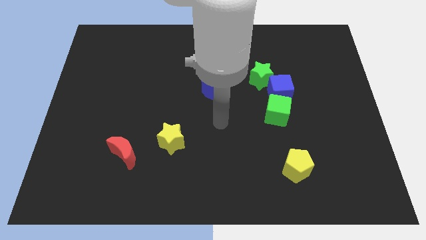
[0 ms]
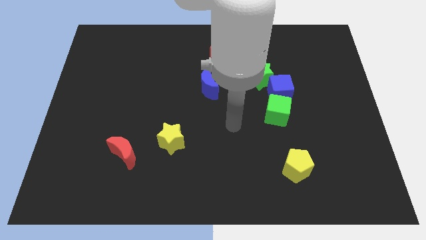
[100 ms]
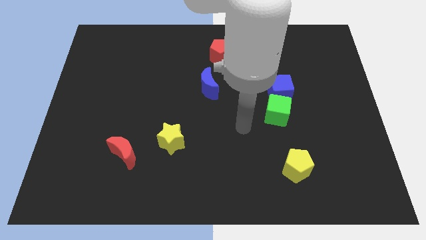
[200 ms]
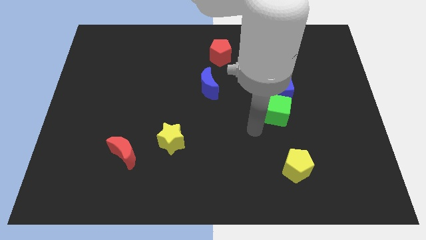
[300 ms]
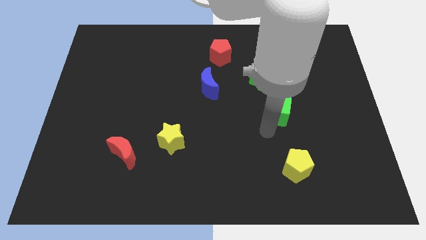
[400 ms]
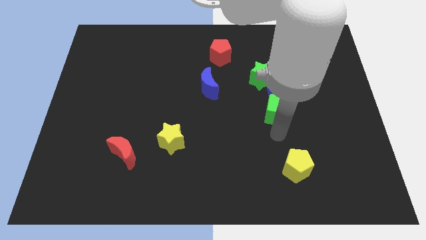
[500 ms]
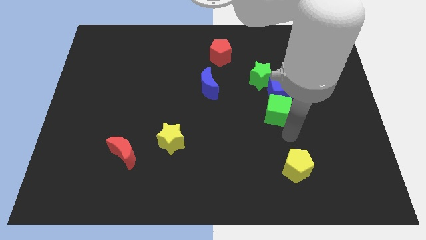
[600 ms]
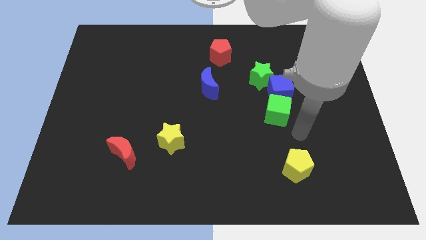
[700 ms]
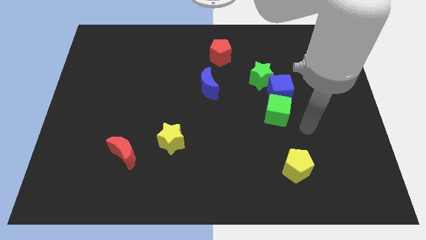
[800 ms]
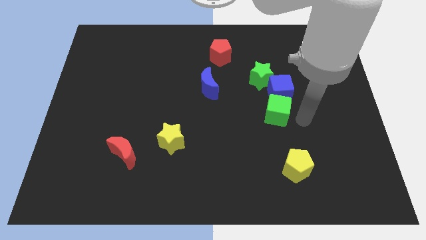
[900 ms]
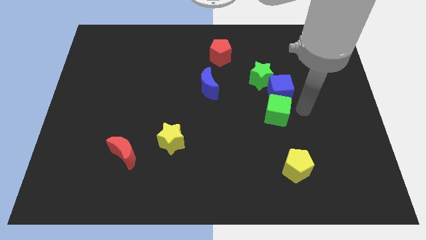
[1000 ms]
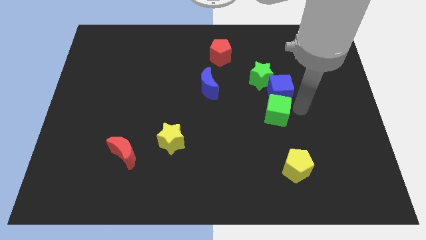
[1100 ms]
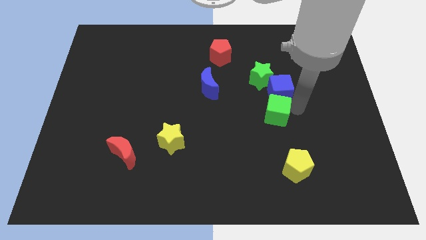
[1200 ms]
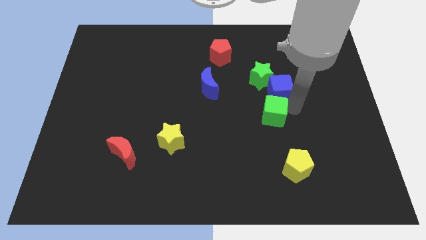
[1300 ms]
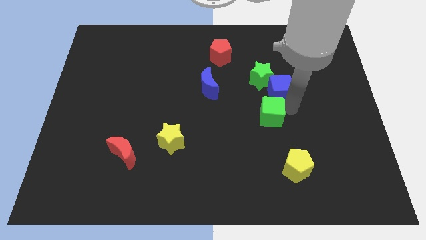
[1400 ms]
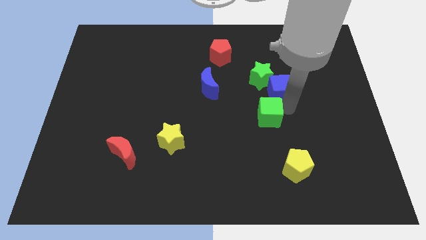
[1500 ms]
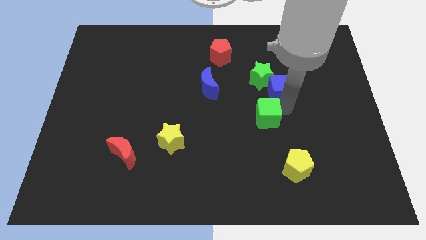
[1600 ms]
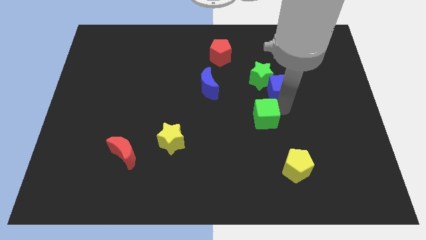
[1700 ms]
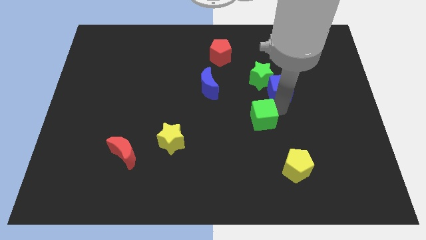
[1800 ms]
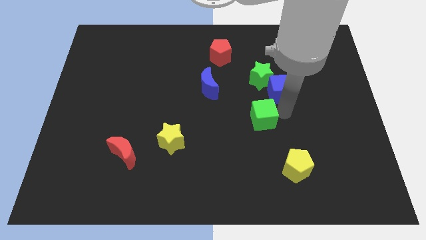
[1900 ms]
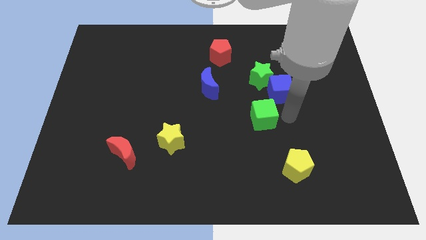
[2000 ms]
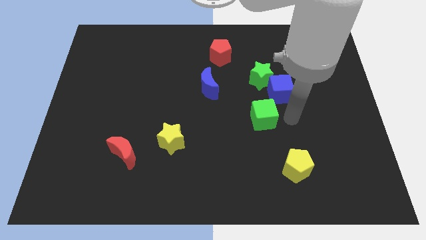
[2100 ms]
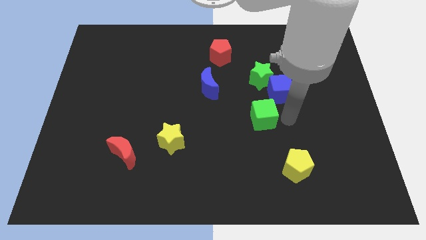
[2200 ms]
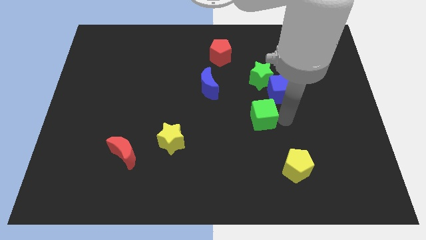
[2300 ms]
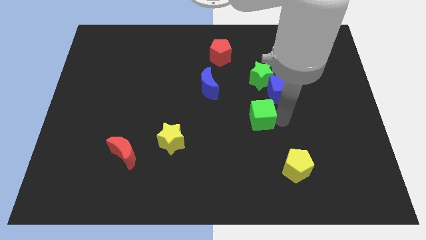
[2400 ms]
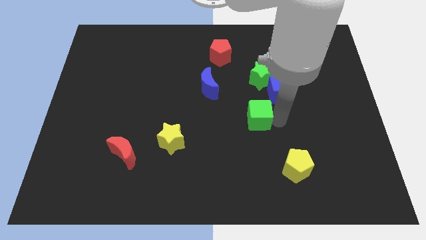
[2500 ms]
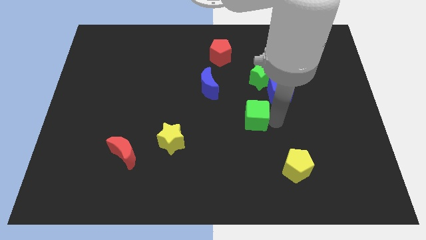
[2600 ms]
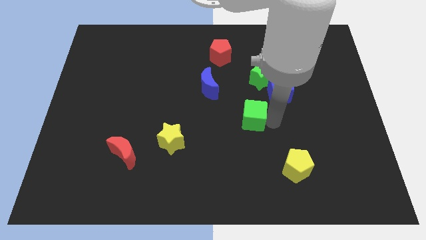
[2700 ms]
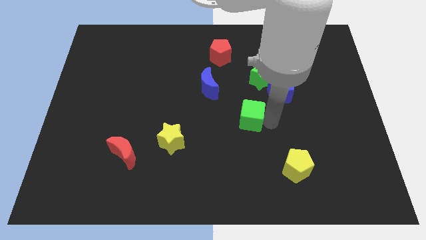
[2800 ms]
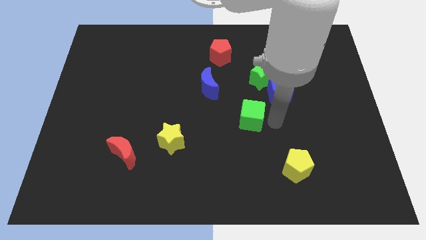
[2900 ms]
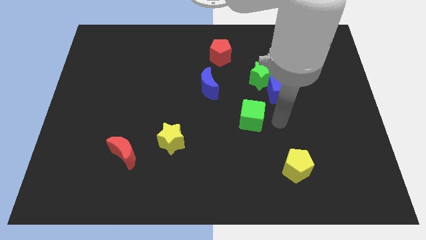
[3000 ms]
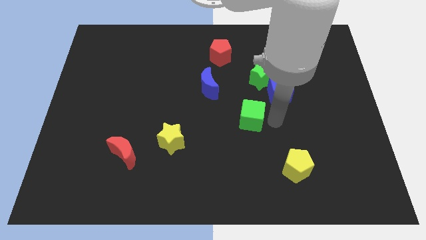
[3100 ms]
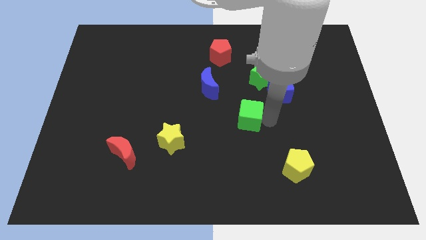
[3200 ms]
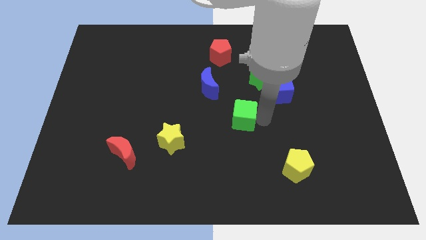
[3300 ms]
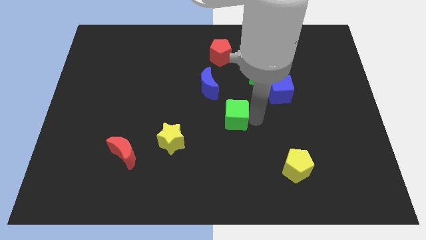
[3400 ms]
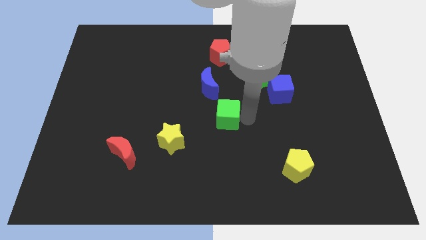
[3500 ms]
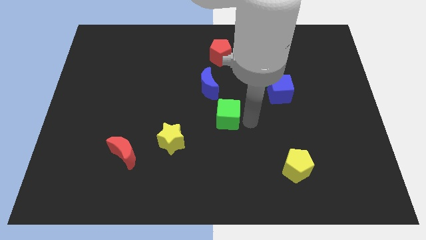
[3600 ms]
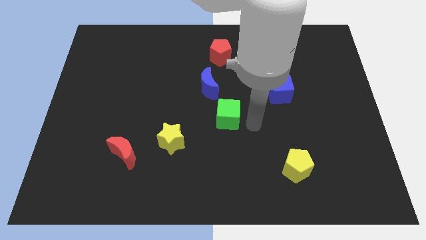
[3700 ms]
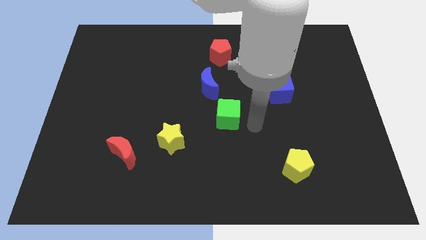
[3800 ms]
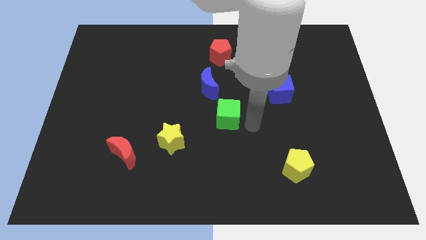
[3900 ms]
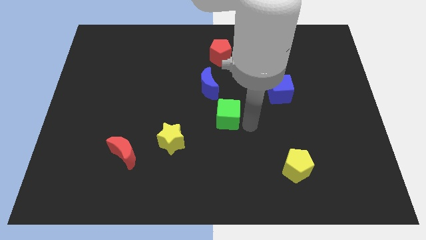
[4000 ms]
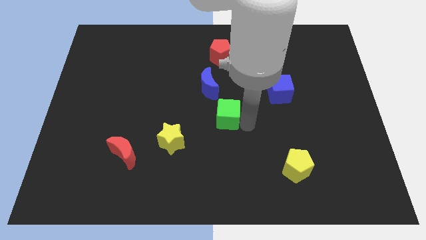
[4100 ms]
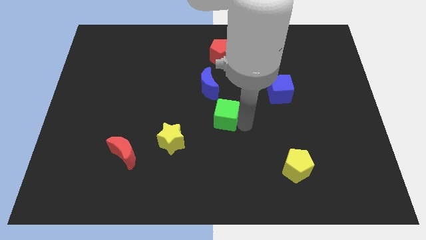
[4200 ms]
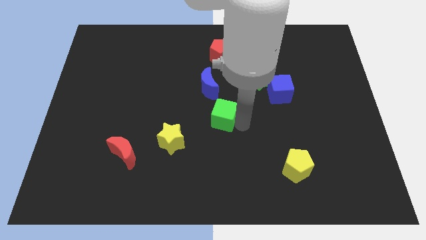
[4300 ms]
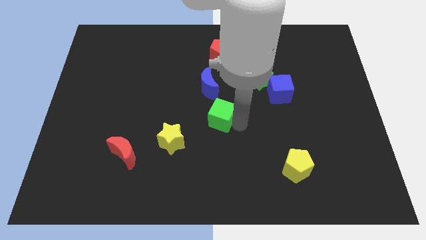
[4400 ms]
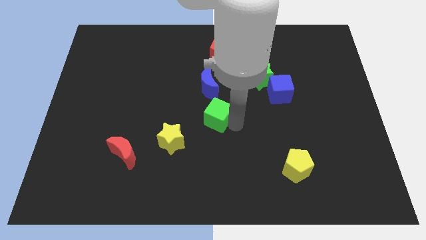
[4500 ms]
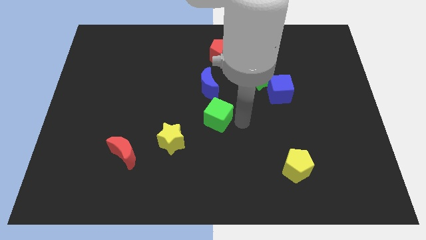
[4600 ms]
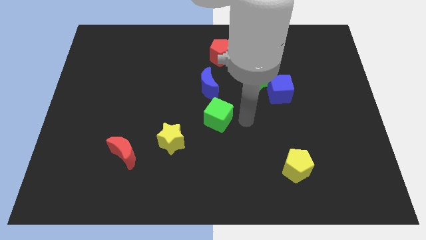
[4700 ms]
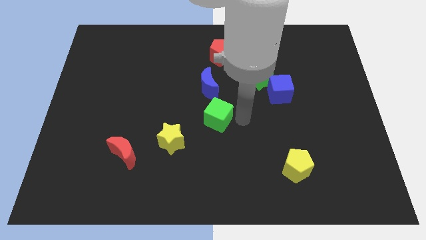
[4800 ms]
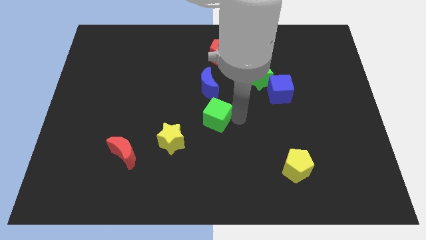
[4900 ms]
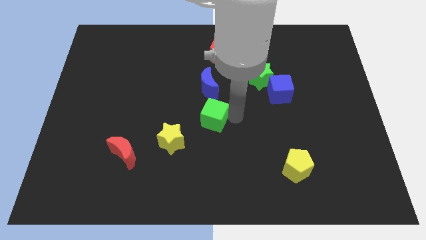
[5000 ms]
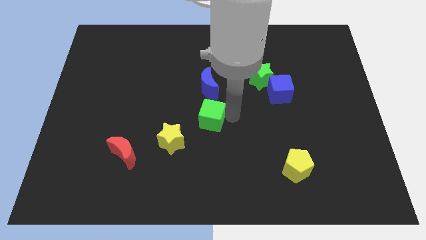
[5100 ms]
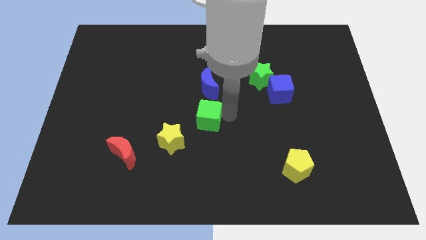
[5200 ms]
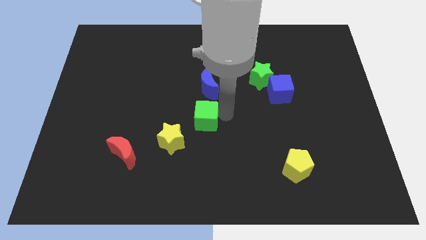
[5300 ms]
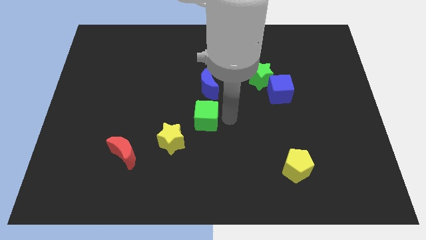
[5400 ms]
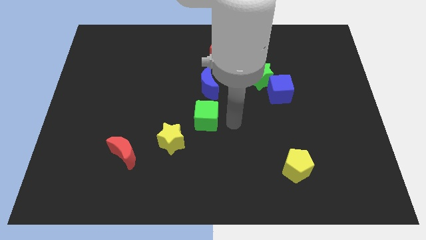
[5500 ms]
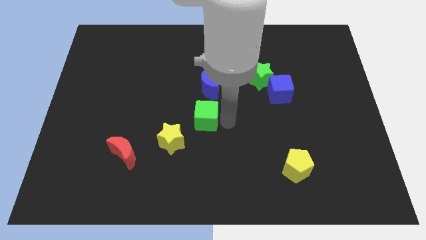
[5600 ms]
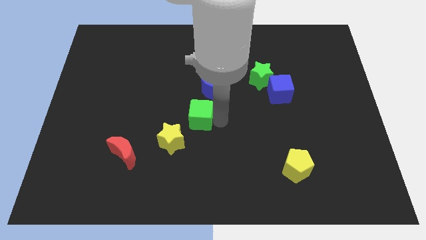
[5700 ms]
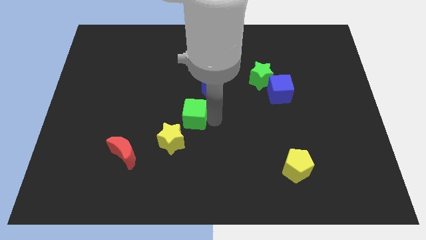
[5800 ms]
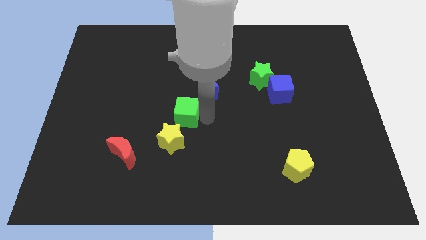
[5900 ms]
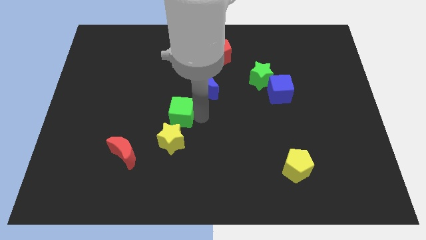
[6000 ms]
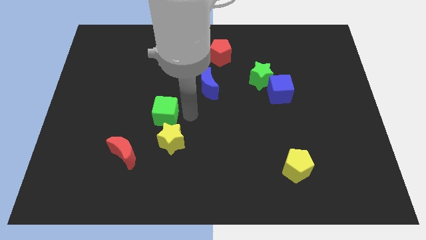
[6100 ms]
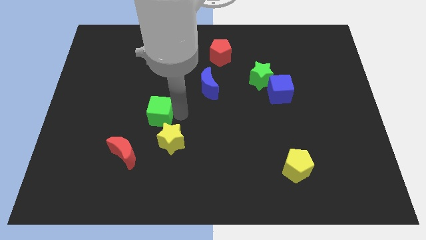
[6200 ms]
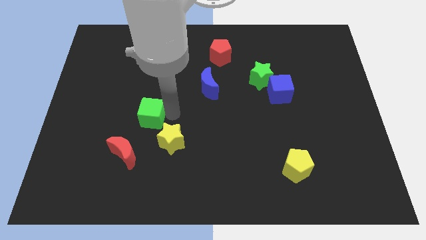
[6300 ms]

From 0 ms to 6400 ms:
move the green cube above the red moon
